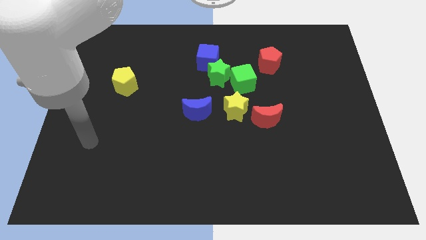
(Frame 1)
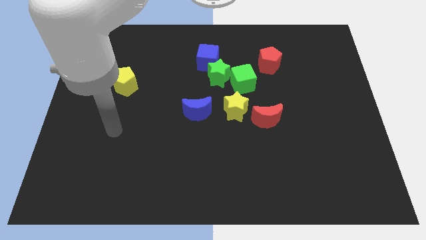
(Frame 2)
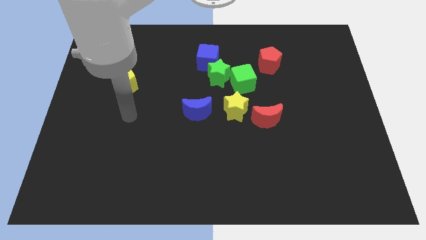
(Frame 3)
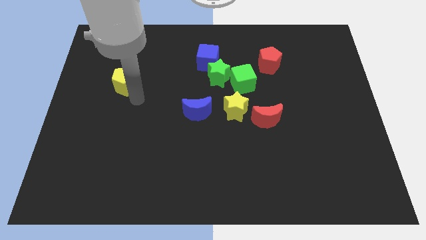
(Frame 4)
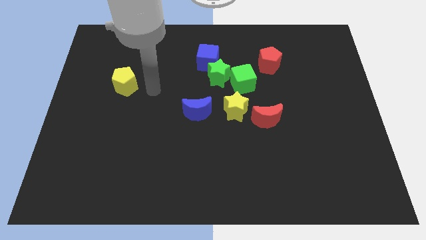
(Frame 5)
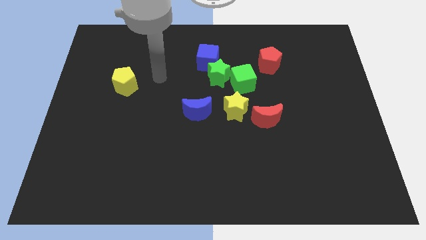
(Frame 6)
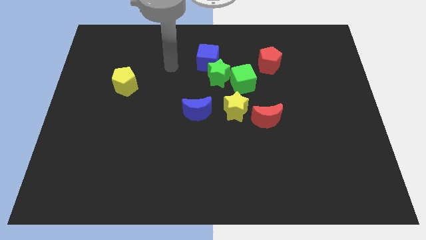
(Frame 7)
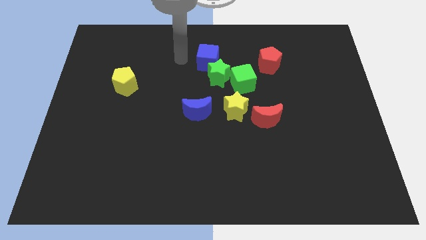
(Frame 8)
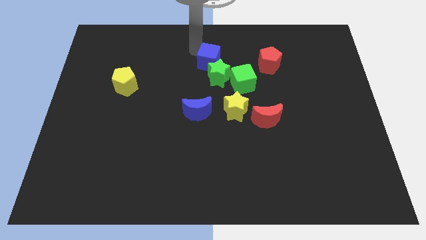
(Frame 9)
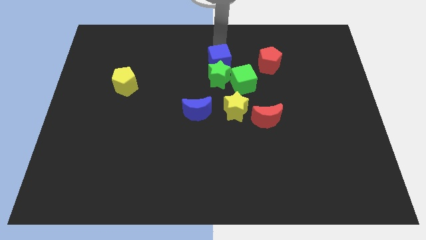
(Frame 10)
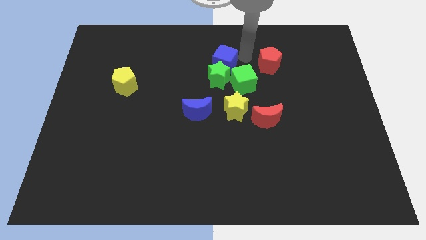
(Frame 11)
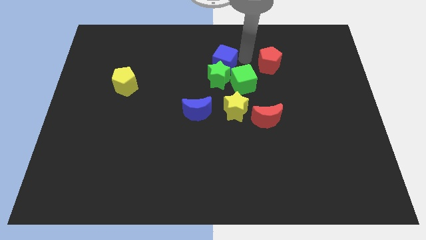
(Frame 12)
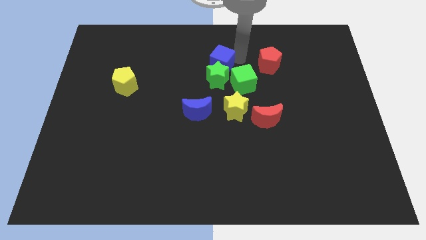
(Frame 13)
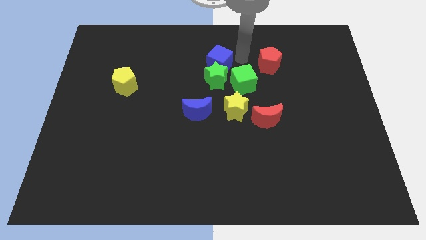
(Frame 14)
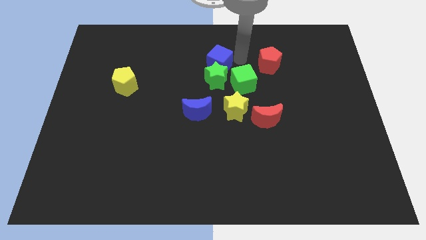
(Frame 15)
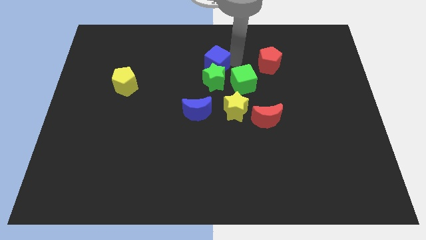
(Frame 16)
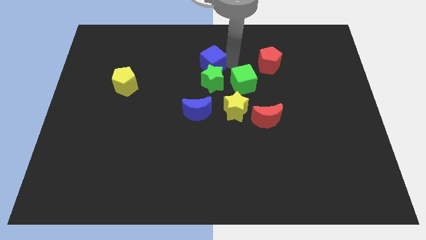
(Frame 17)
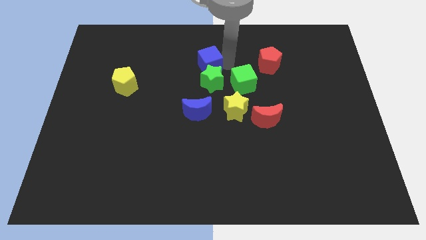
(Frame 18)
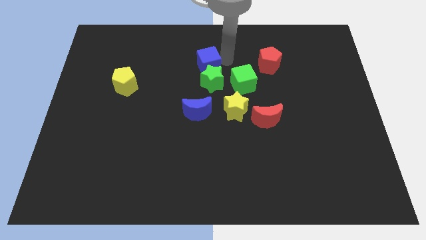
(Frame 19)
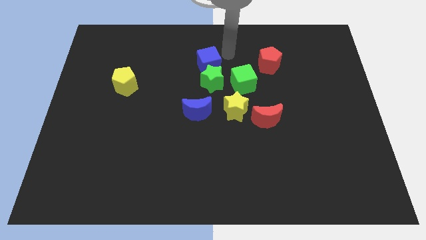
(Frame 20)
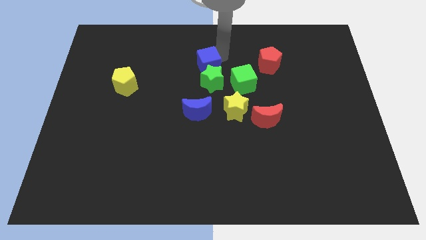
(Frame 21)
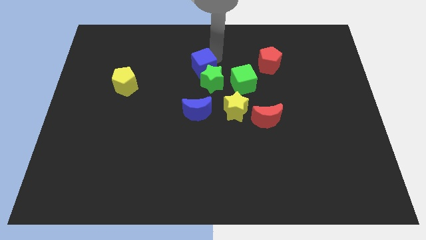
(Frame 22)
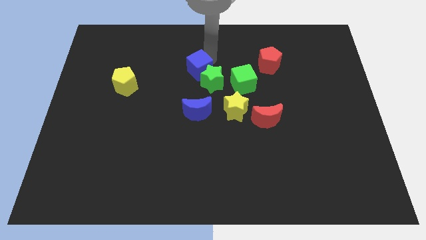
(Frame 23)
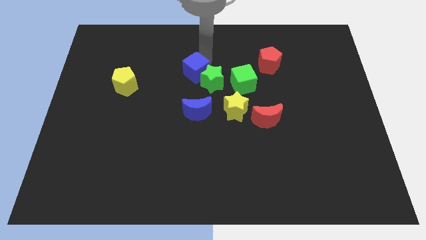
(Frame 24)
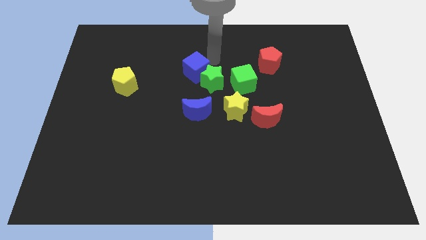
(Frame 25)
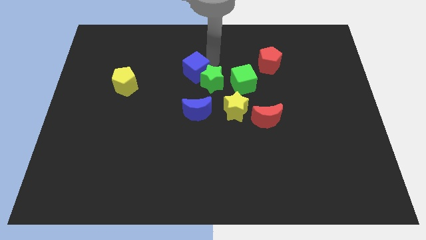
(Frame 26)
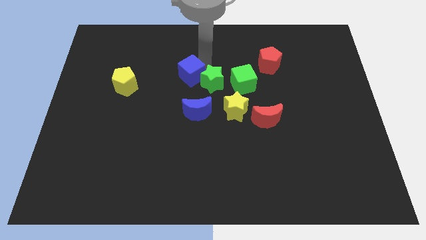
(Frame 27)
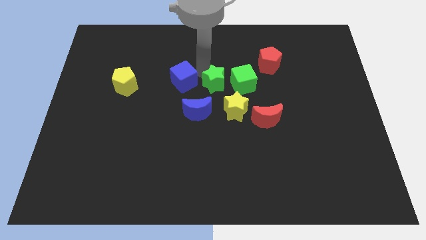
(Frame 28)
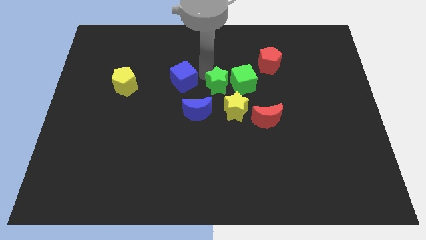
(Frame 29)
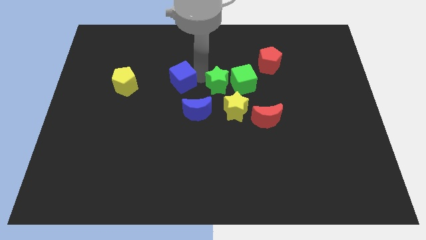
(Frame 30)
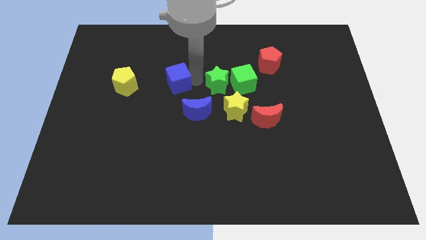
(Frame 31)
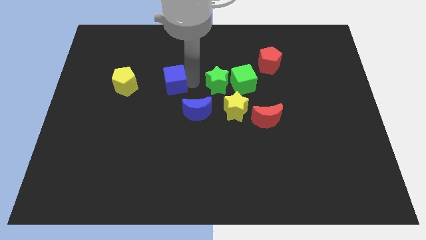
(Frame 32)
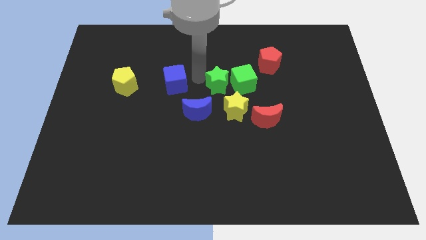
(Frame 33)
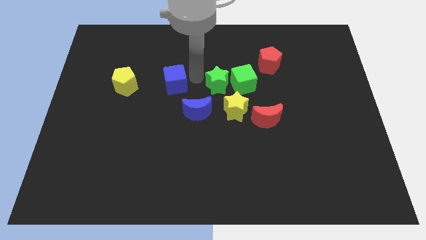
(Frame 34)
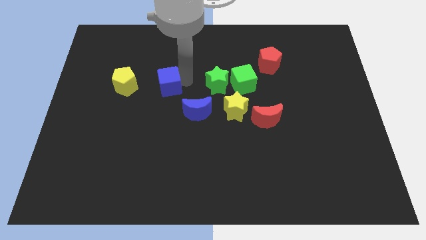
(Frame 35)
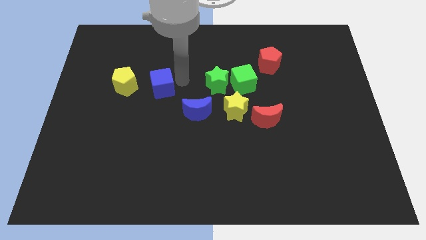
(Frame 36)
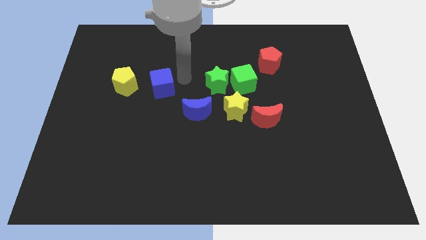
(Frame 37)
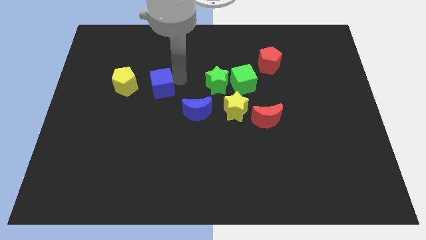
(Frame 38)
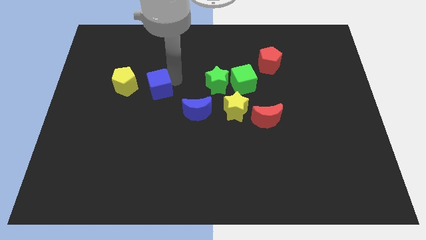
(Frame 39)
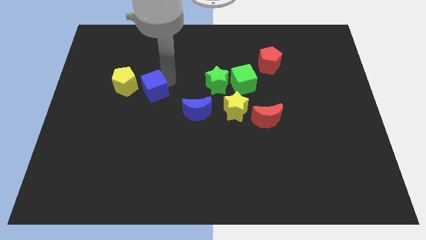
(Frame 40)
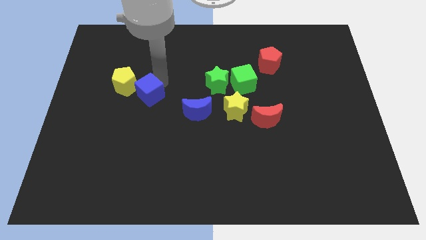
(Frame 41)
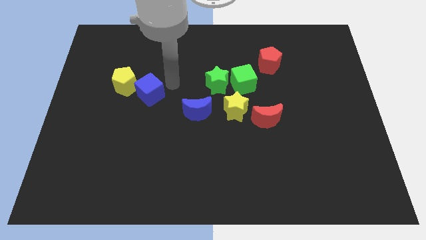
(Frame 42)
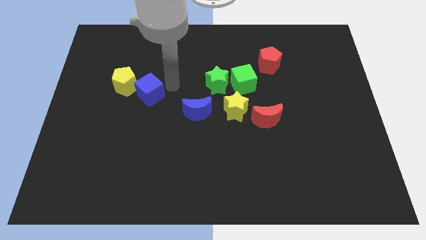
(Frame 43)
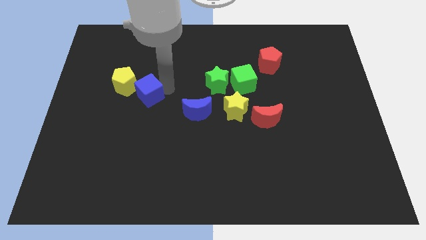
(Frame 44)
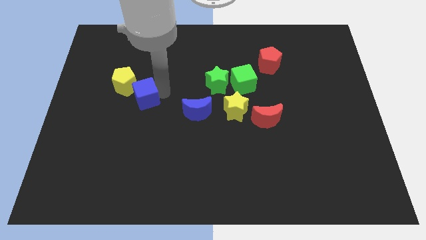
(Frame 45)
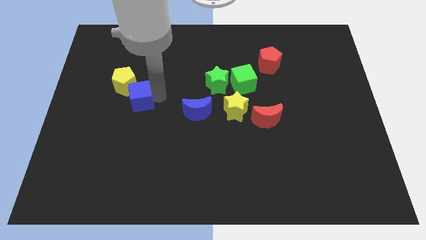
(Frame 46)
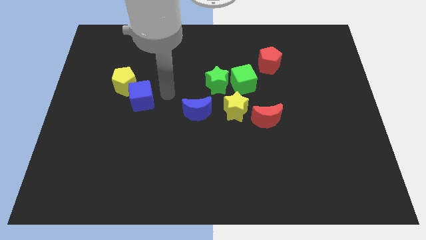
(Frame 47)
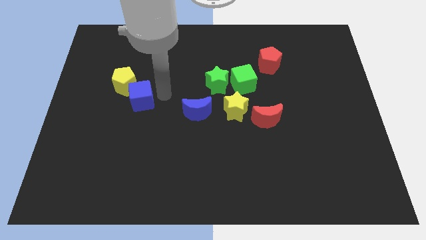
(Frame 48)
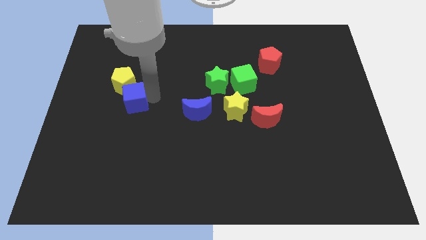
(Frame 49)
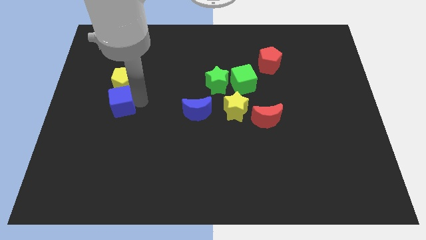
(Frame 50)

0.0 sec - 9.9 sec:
push the blue cube to the bottom left side of the yellow pentagon

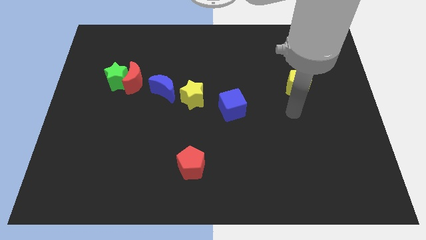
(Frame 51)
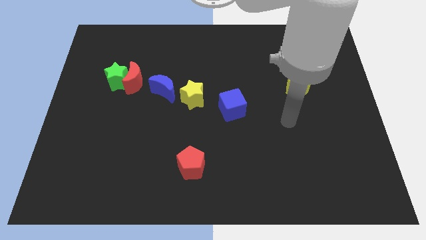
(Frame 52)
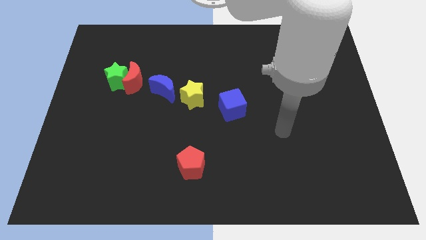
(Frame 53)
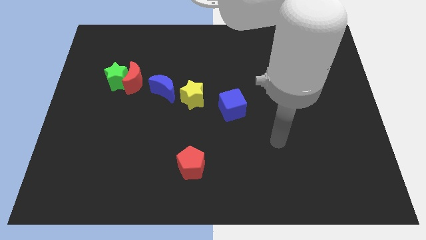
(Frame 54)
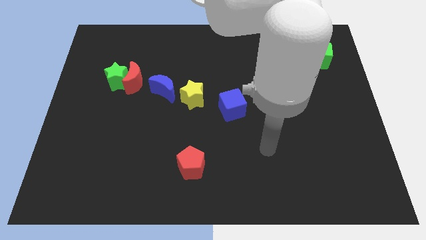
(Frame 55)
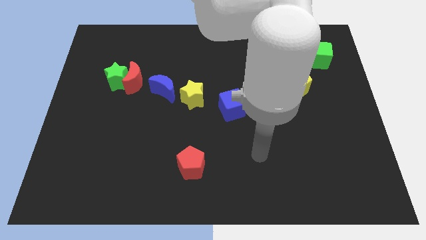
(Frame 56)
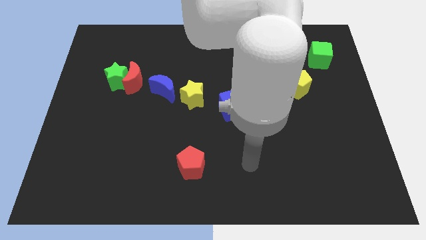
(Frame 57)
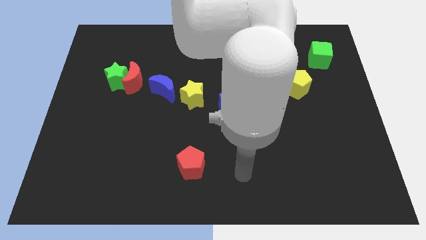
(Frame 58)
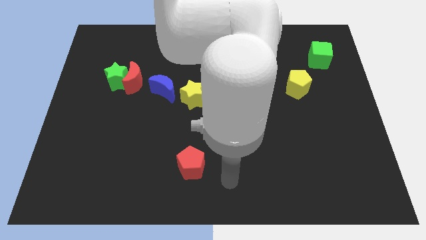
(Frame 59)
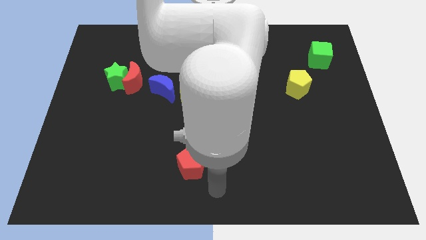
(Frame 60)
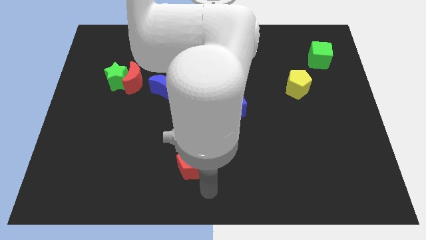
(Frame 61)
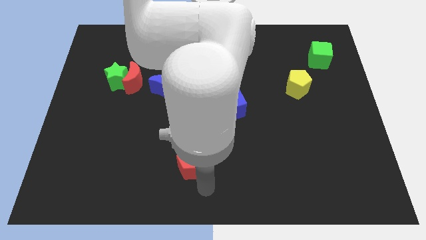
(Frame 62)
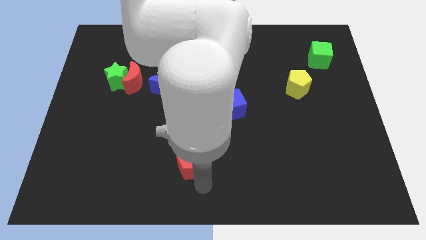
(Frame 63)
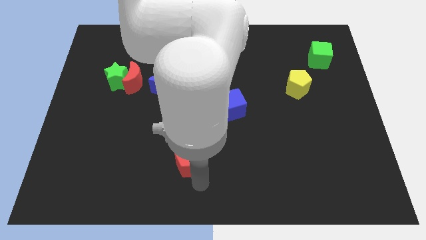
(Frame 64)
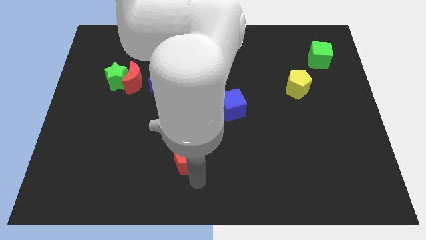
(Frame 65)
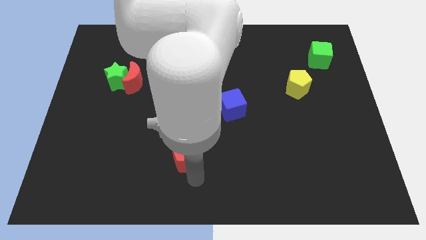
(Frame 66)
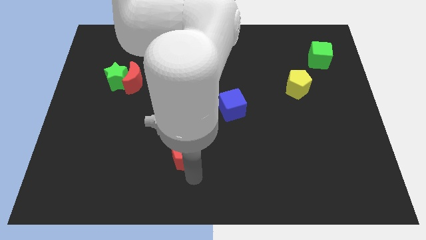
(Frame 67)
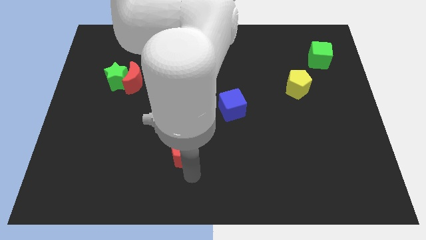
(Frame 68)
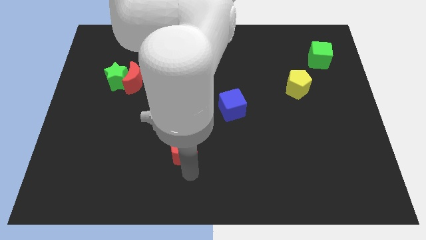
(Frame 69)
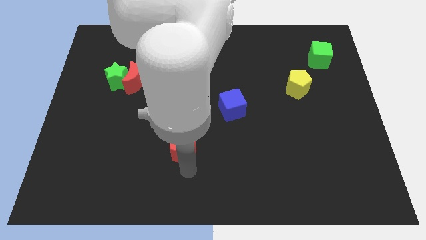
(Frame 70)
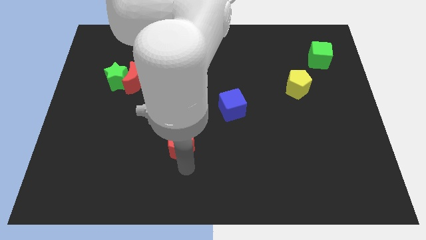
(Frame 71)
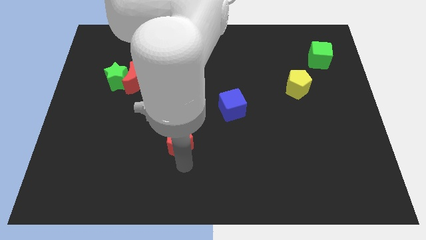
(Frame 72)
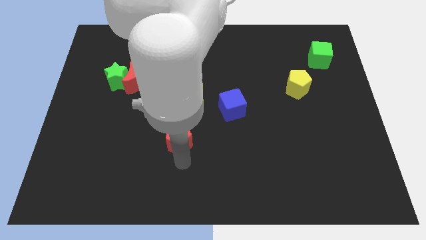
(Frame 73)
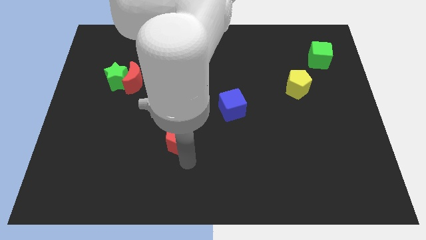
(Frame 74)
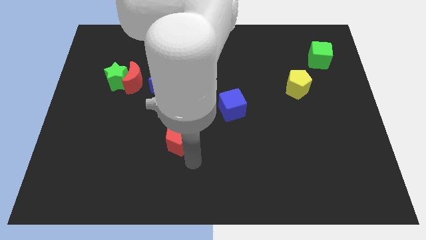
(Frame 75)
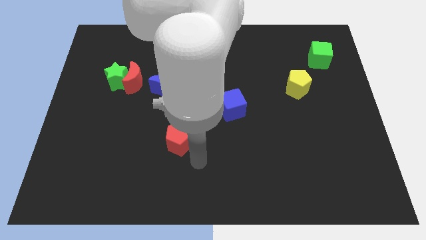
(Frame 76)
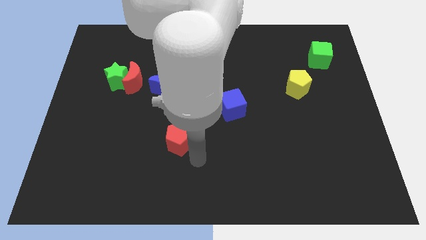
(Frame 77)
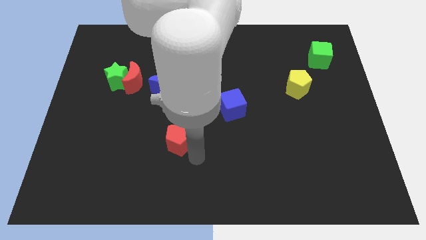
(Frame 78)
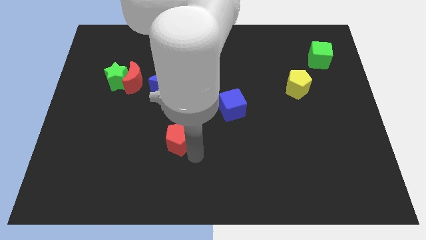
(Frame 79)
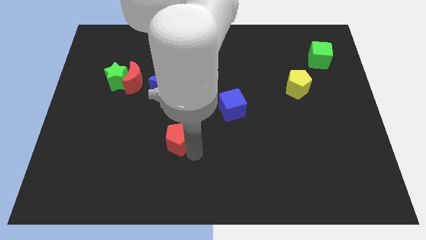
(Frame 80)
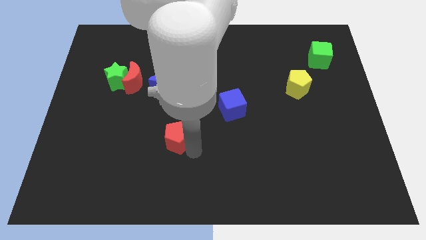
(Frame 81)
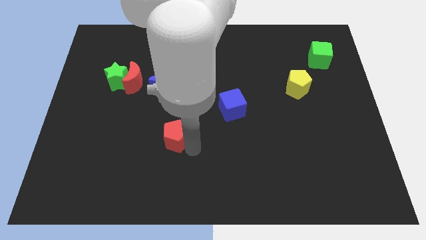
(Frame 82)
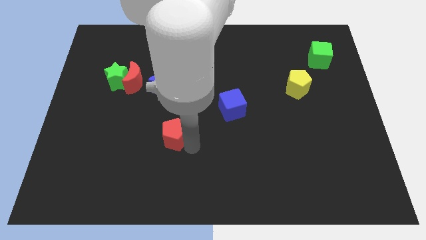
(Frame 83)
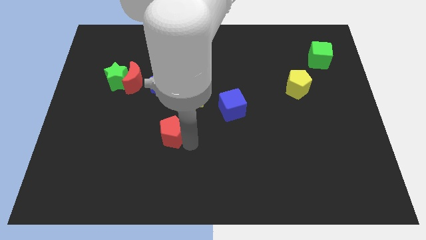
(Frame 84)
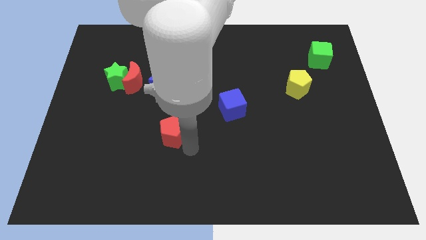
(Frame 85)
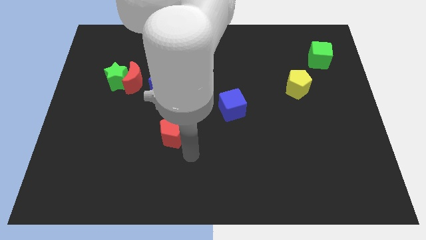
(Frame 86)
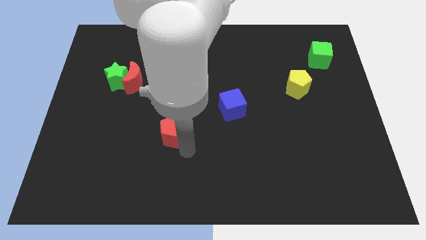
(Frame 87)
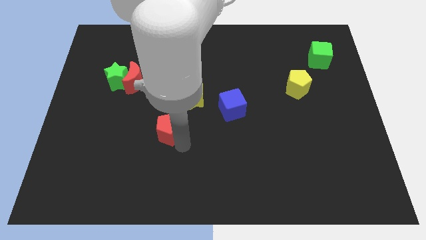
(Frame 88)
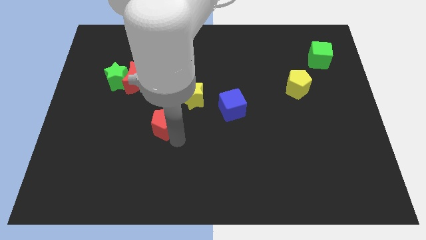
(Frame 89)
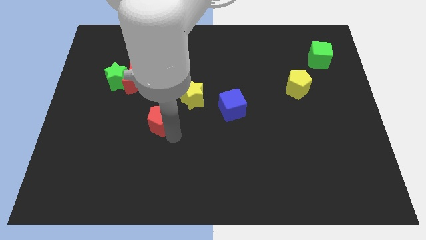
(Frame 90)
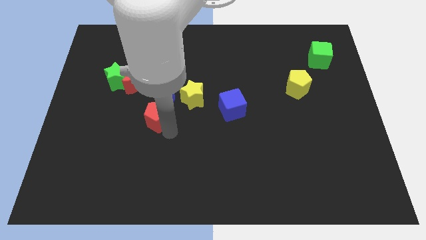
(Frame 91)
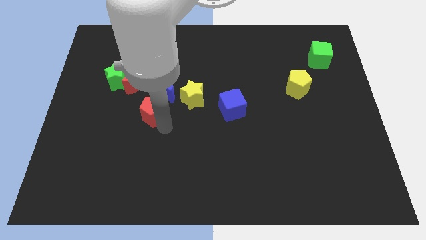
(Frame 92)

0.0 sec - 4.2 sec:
move the red pentagon to the left of the yellow star
